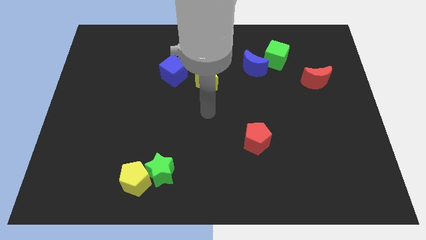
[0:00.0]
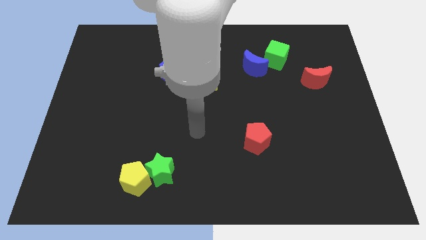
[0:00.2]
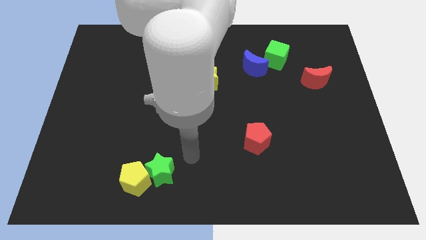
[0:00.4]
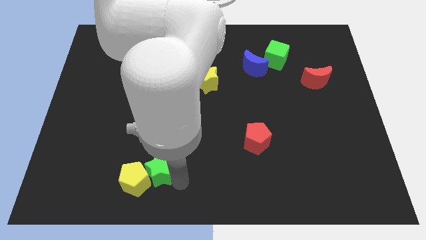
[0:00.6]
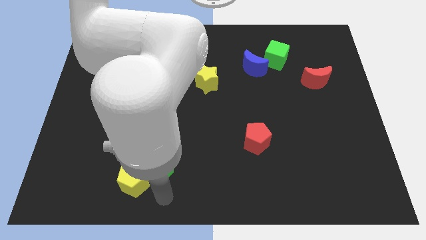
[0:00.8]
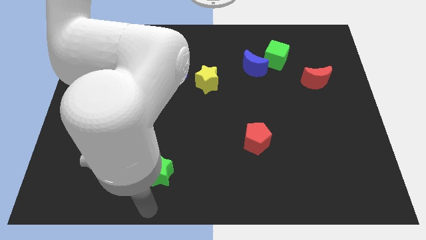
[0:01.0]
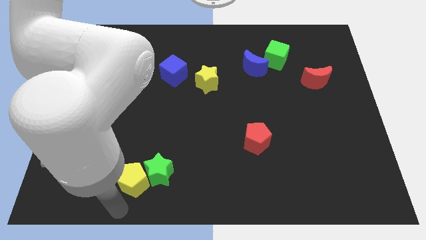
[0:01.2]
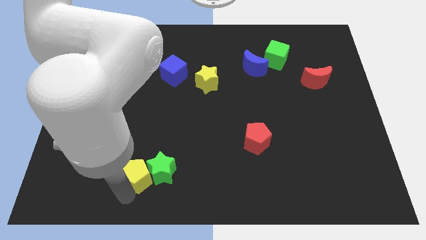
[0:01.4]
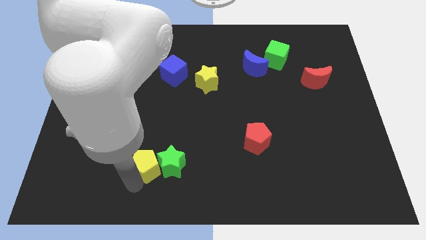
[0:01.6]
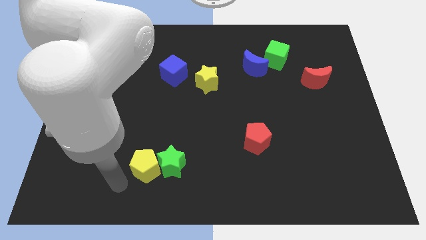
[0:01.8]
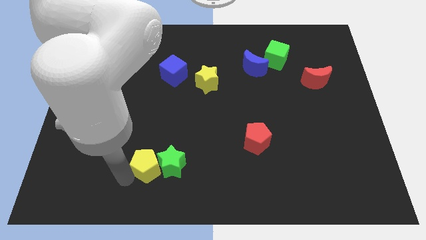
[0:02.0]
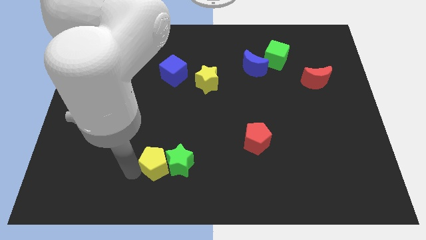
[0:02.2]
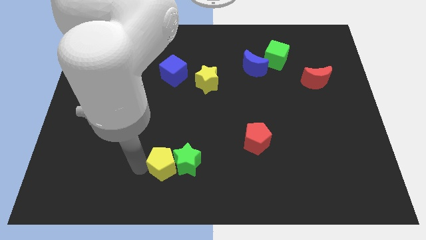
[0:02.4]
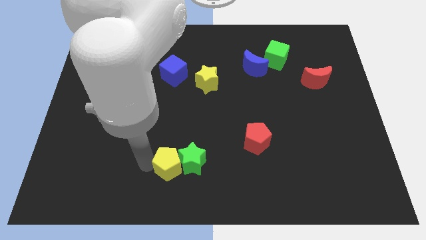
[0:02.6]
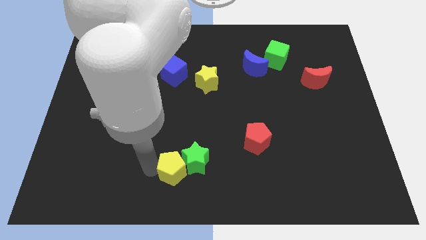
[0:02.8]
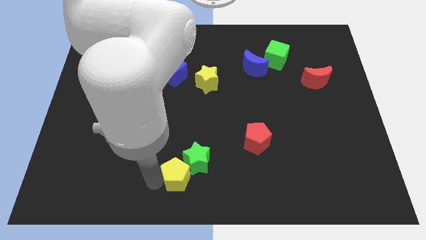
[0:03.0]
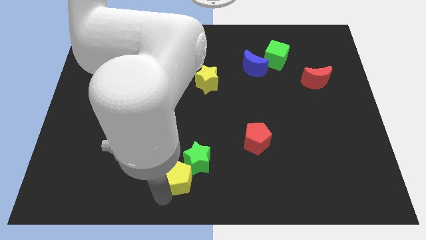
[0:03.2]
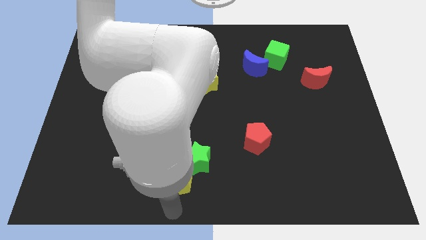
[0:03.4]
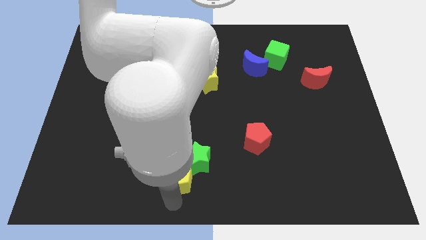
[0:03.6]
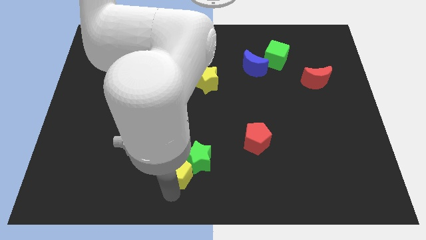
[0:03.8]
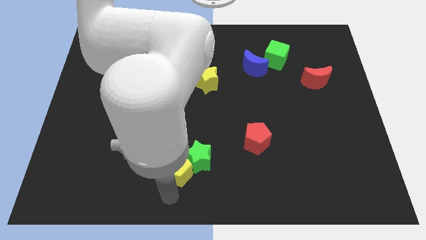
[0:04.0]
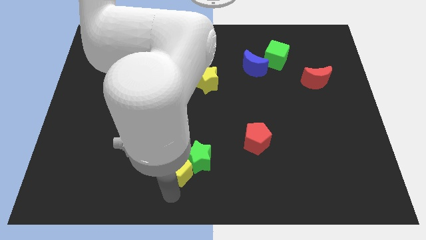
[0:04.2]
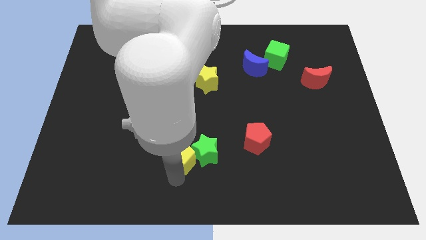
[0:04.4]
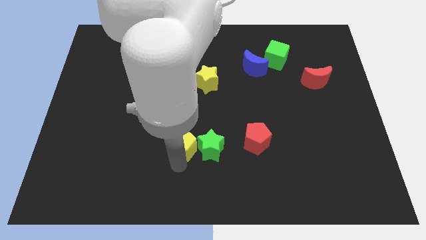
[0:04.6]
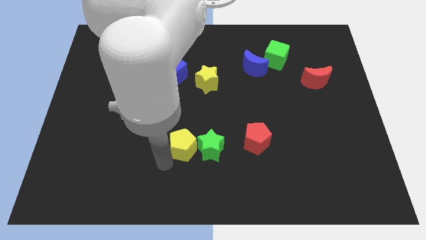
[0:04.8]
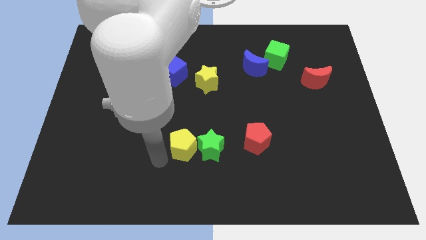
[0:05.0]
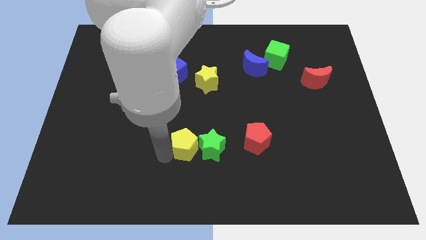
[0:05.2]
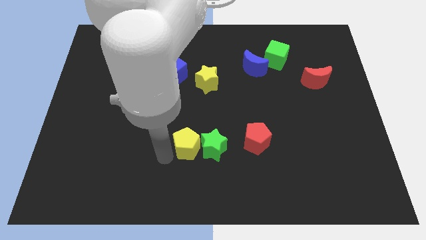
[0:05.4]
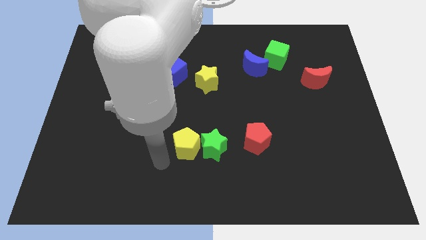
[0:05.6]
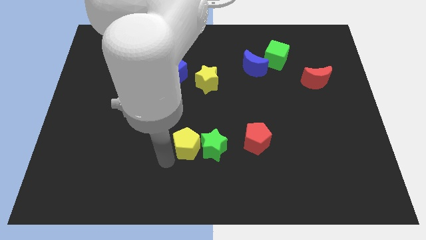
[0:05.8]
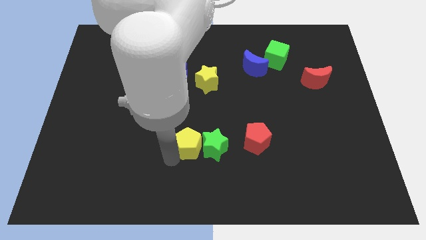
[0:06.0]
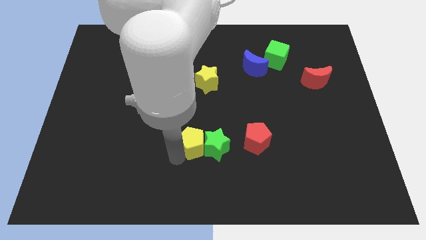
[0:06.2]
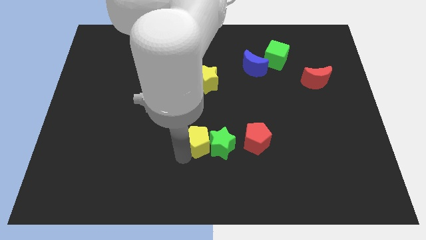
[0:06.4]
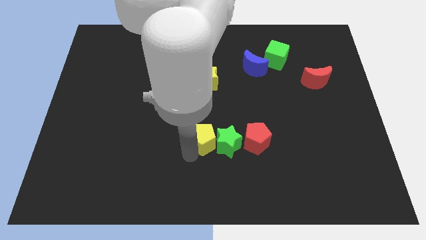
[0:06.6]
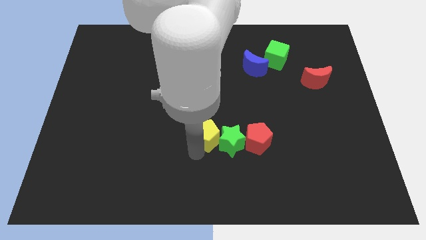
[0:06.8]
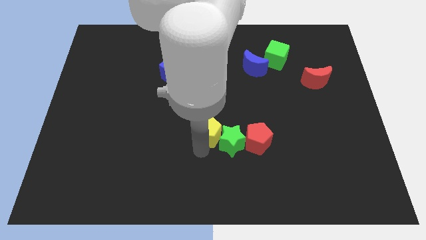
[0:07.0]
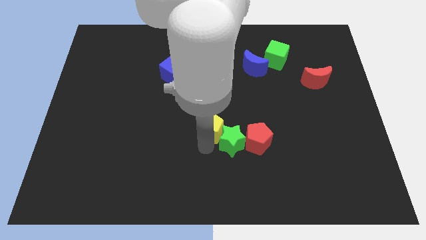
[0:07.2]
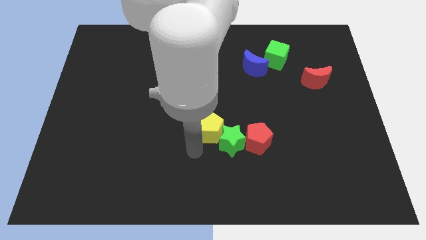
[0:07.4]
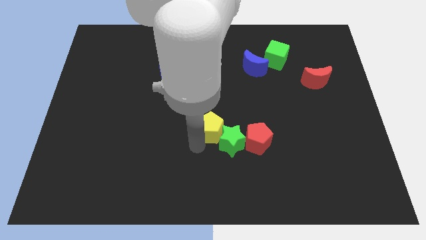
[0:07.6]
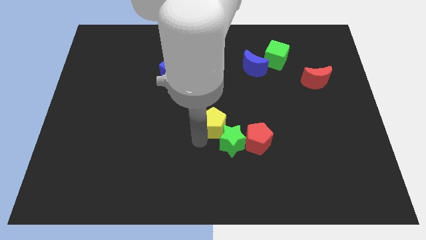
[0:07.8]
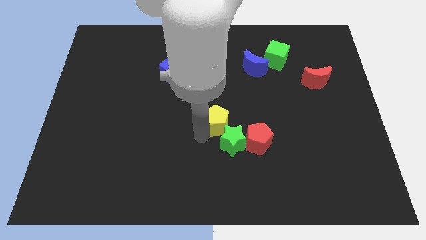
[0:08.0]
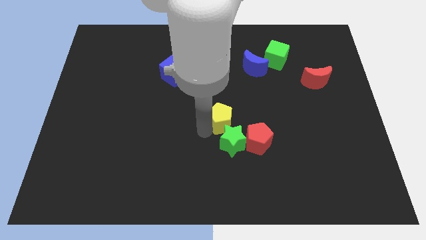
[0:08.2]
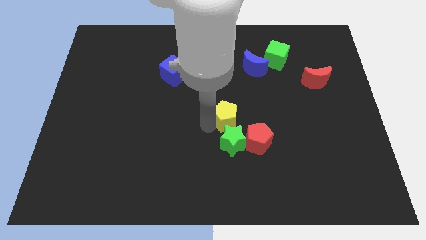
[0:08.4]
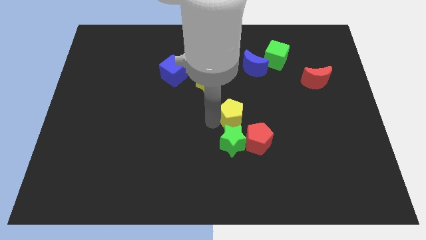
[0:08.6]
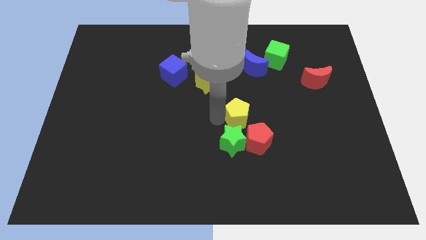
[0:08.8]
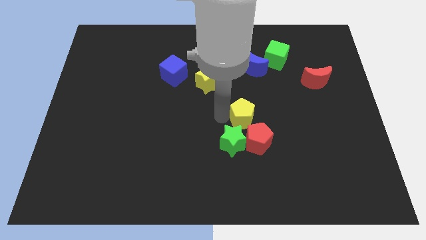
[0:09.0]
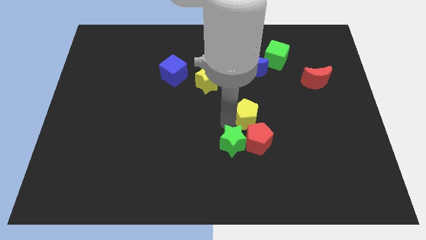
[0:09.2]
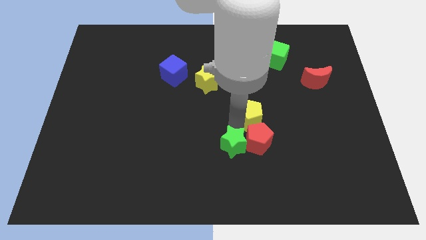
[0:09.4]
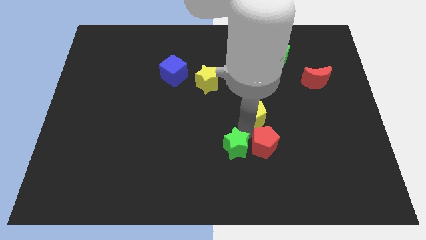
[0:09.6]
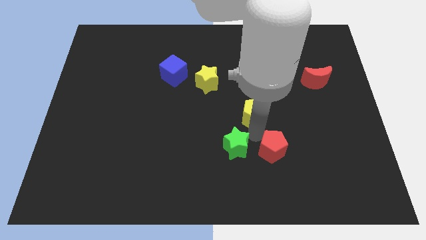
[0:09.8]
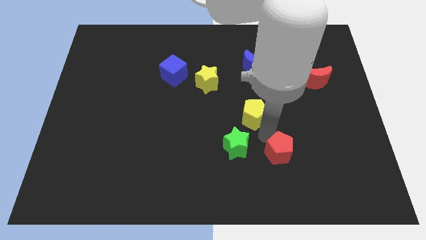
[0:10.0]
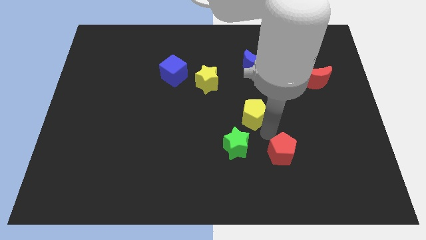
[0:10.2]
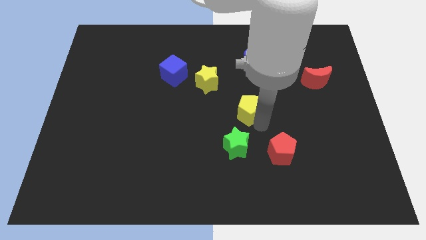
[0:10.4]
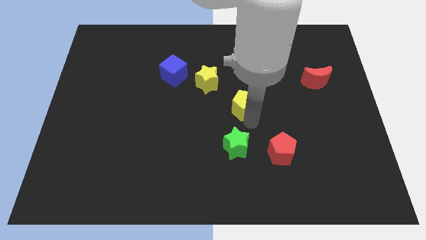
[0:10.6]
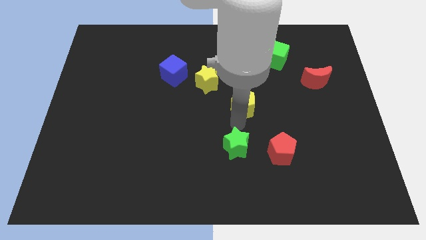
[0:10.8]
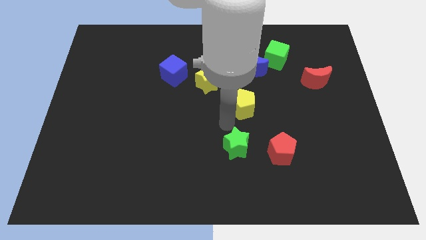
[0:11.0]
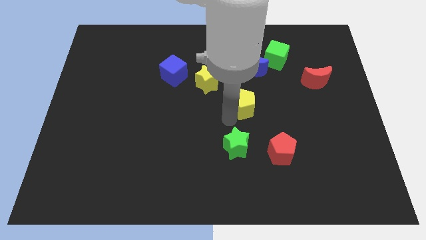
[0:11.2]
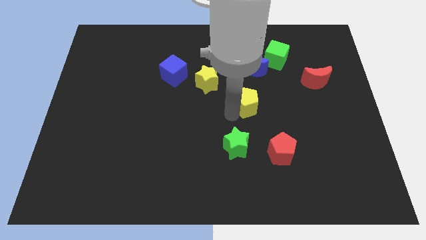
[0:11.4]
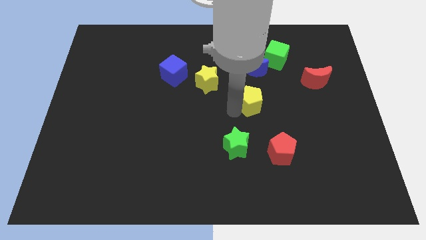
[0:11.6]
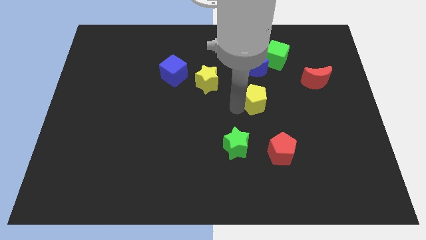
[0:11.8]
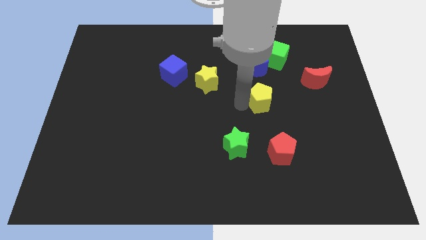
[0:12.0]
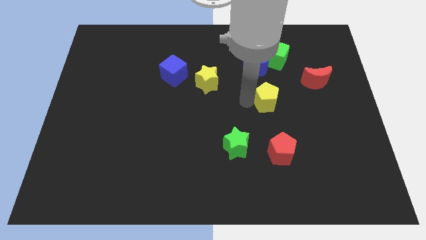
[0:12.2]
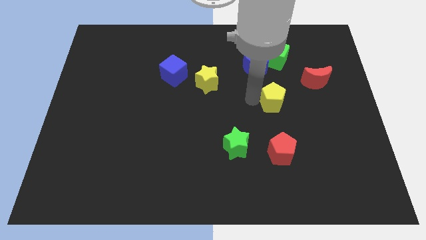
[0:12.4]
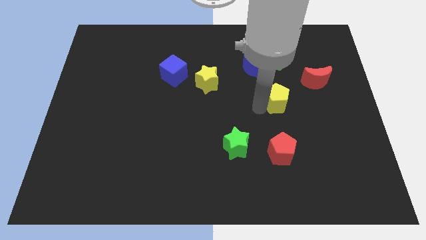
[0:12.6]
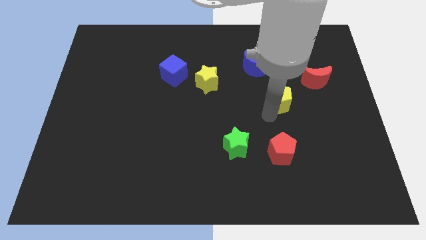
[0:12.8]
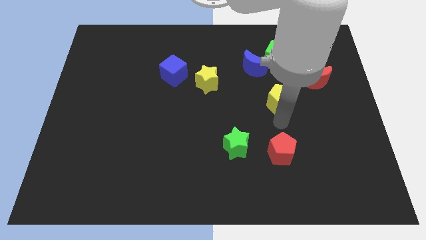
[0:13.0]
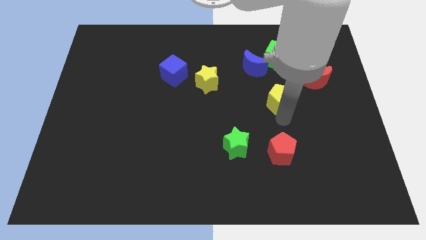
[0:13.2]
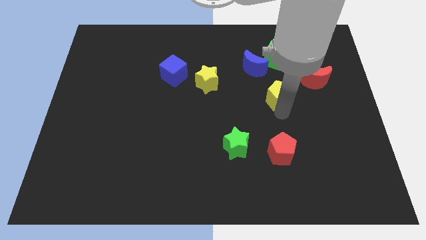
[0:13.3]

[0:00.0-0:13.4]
put the yellow pentagon diagonally down and to the right of the blue moon
